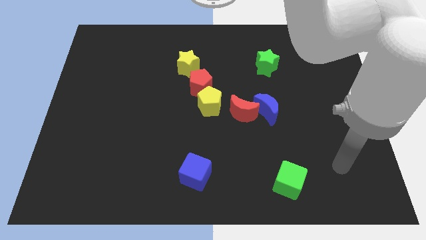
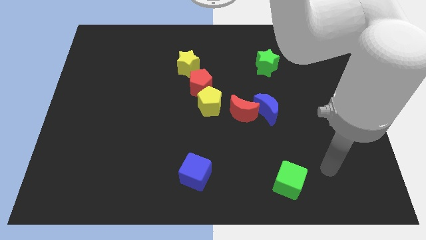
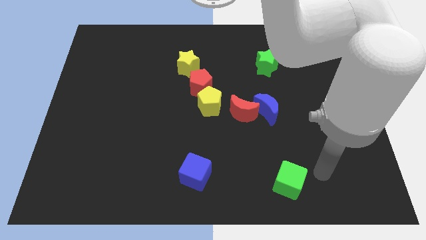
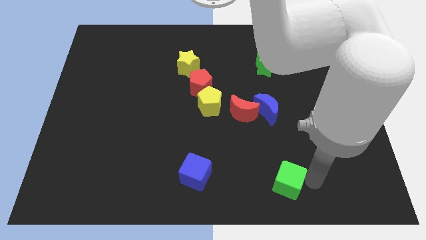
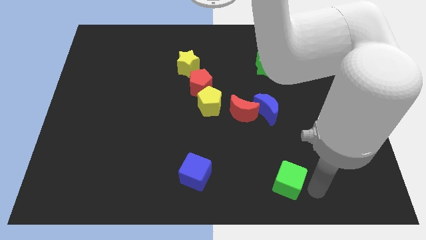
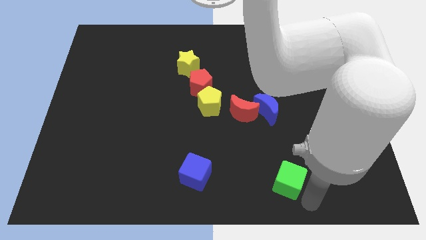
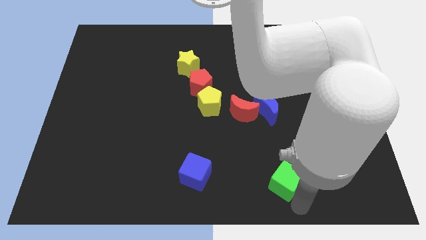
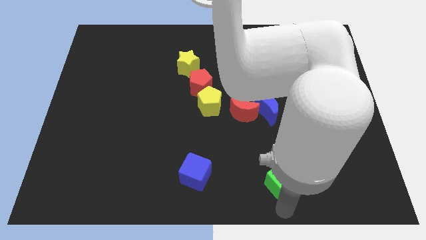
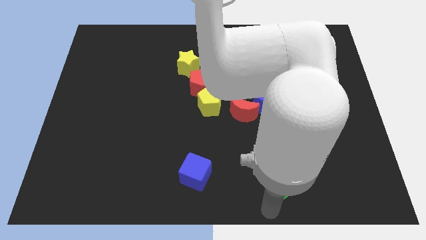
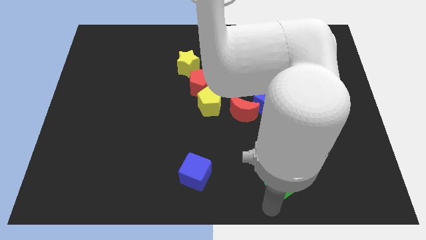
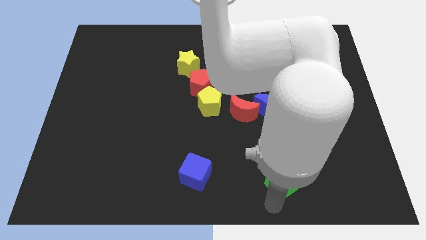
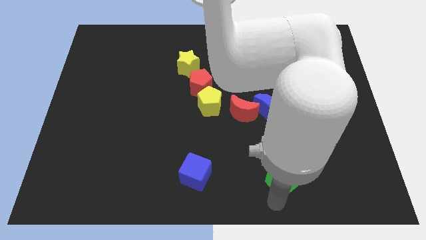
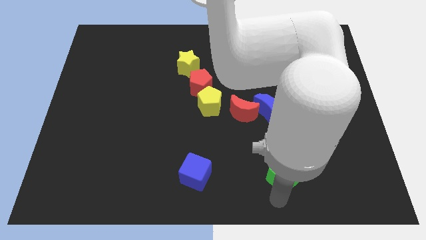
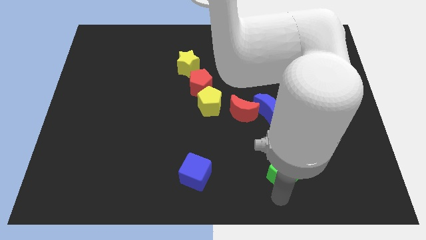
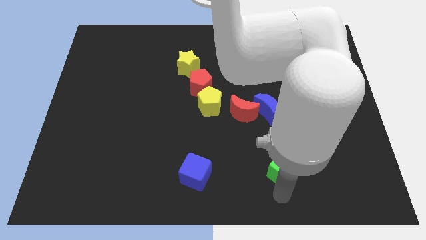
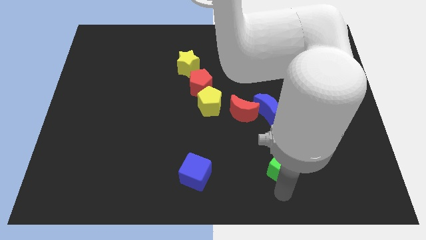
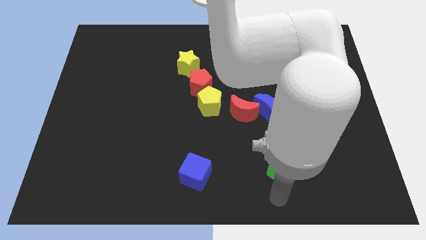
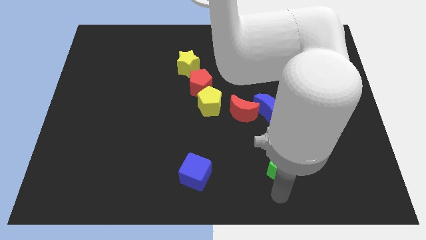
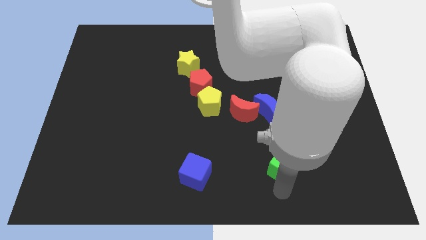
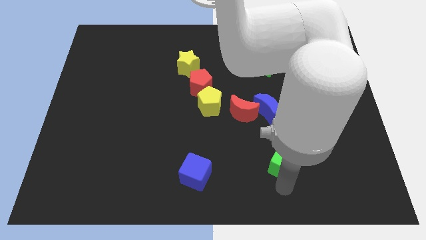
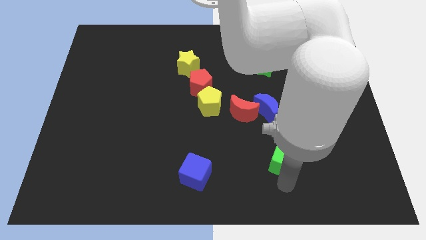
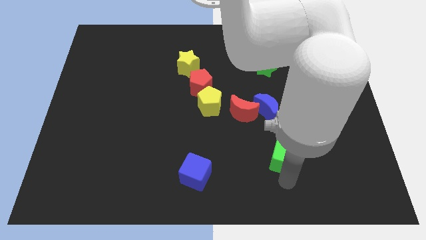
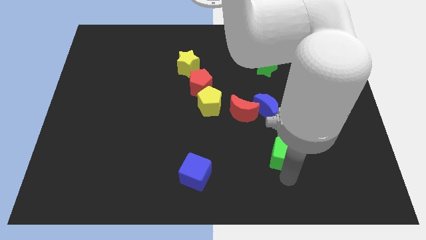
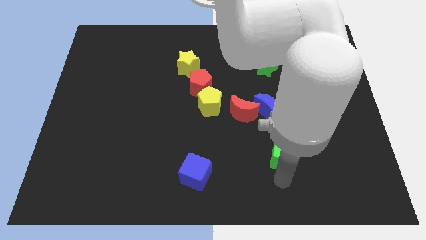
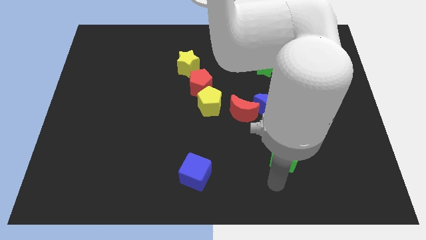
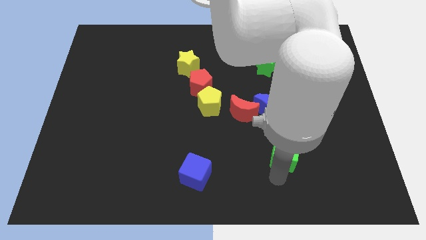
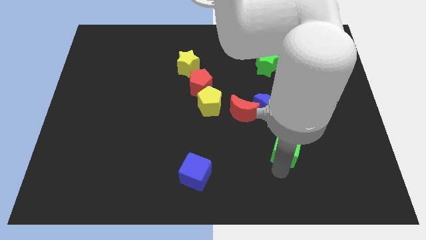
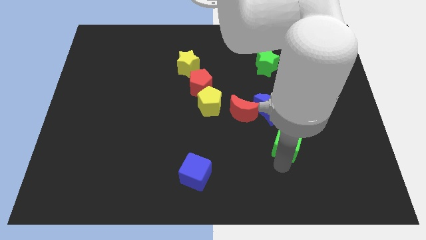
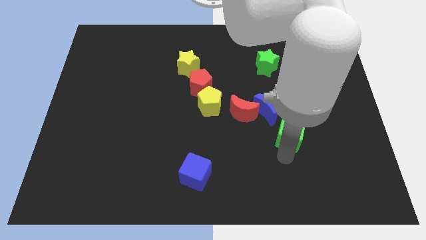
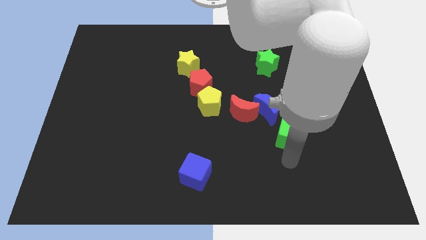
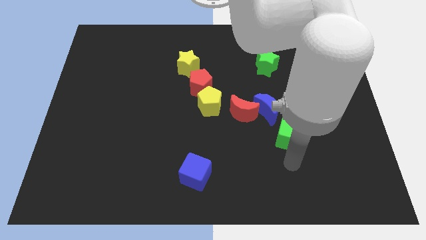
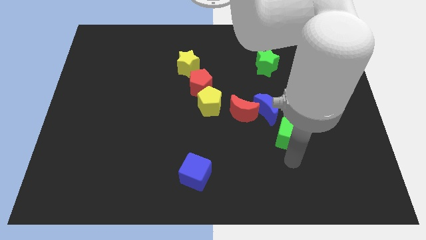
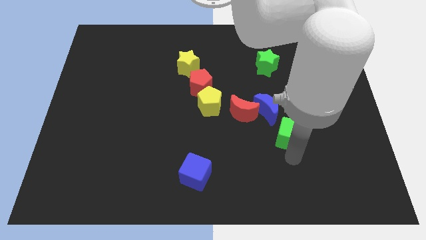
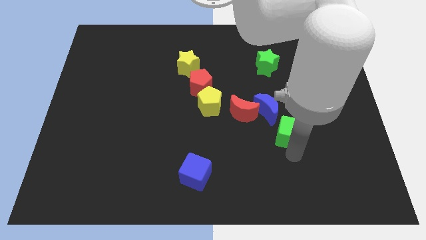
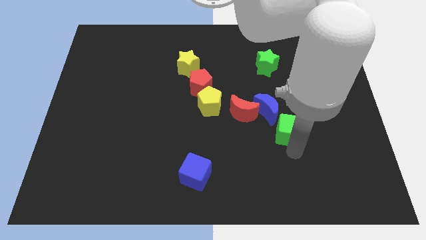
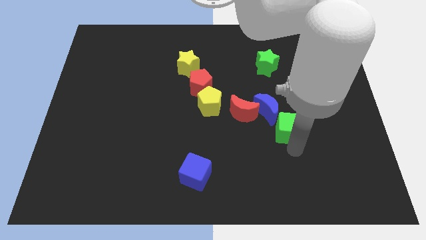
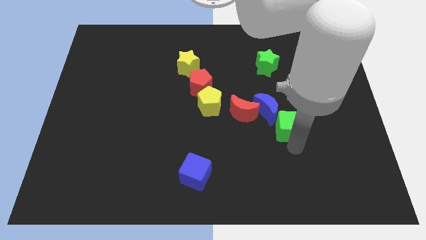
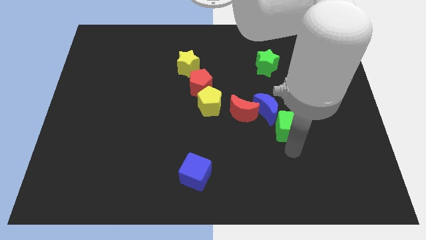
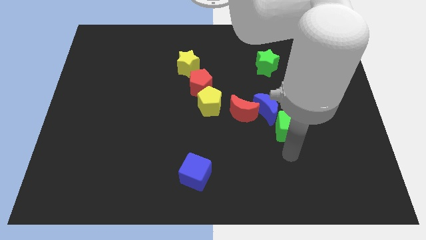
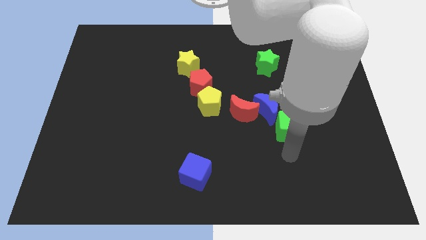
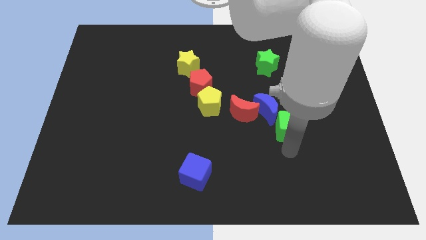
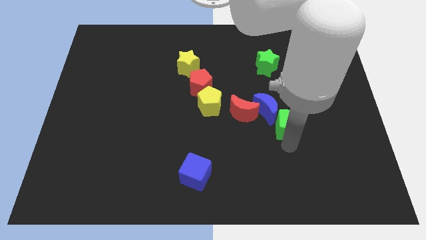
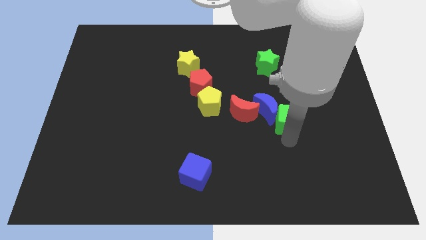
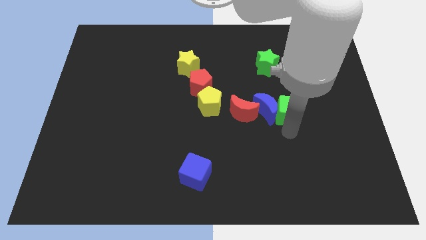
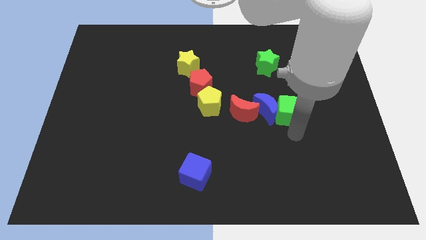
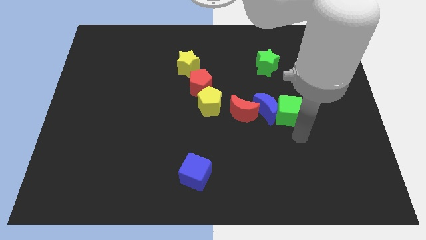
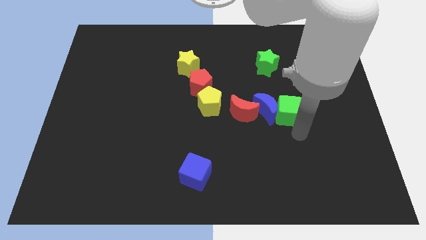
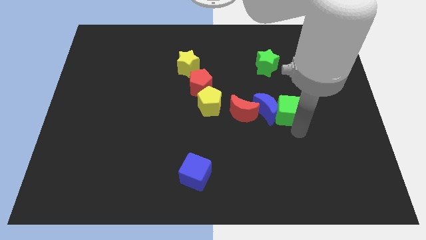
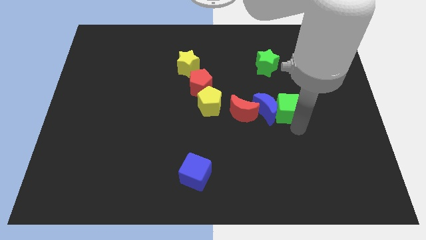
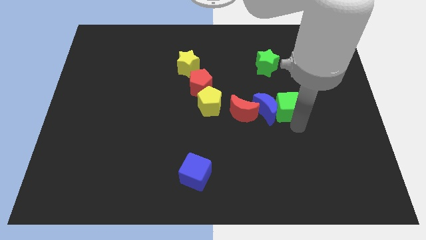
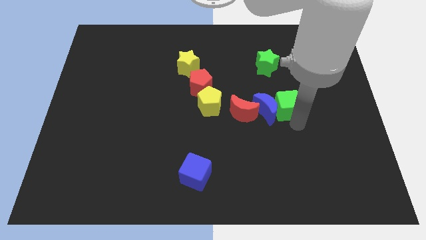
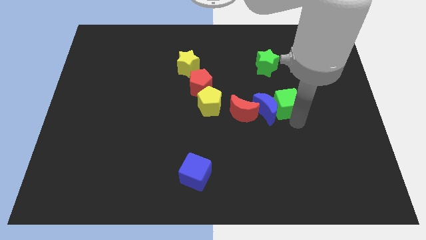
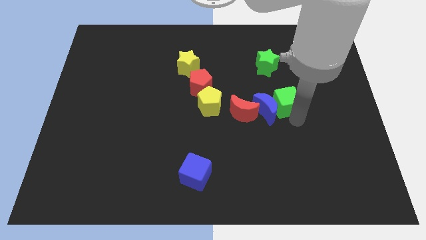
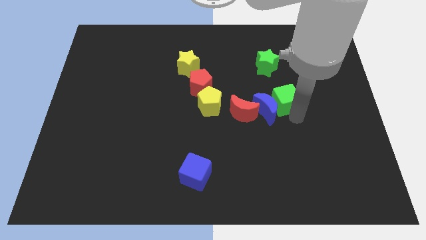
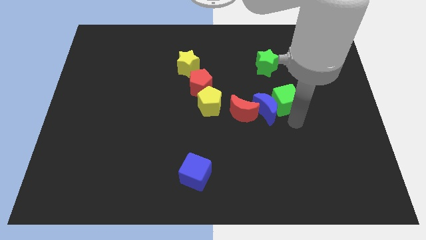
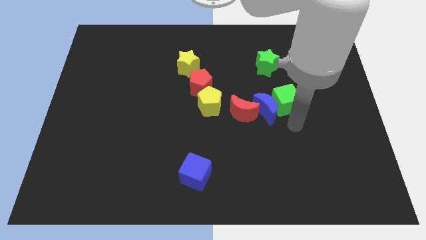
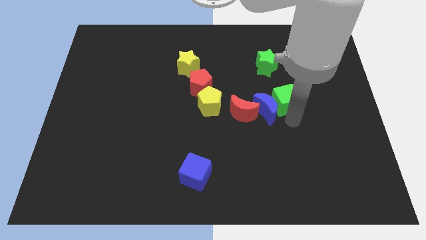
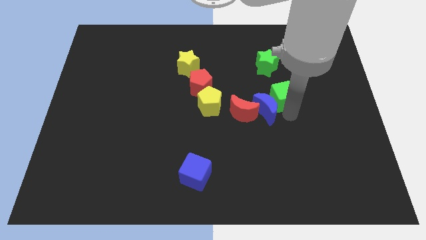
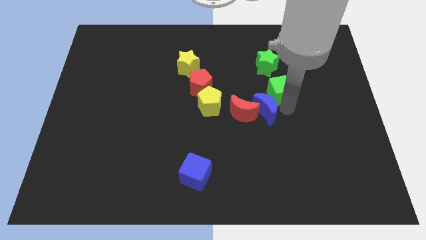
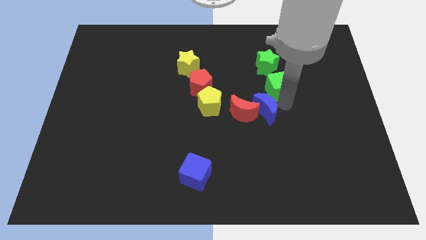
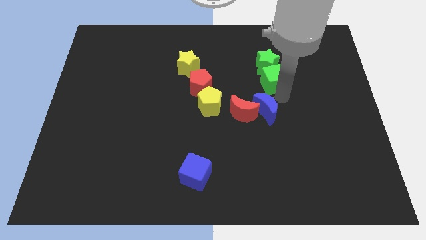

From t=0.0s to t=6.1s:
move the green cube close to the green star
